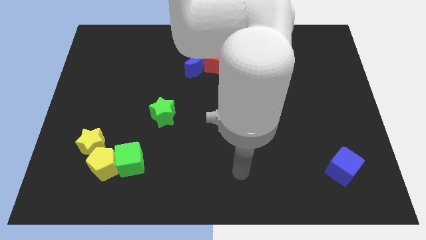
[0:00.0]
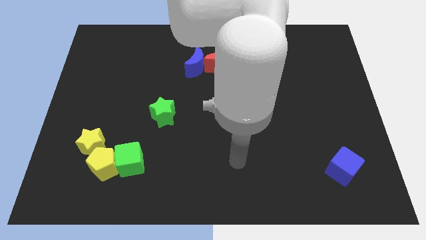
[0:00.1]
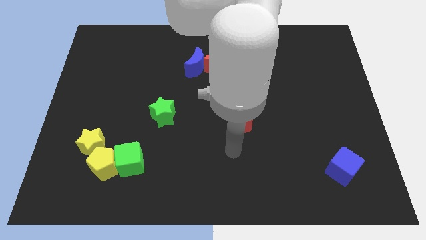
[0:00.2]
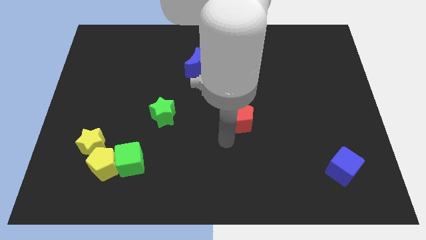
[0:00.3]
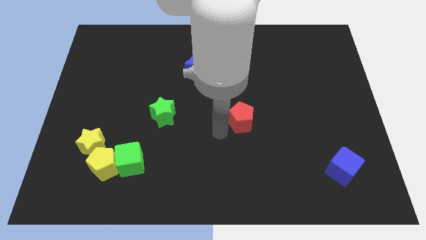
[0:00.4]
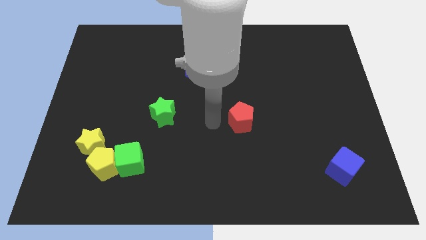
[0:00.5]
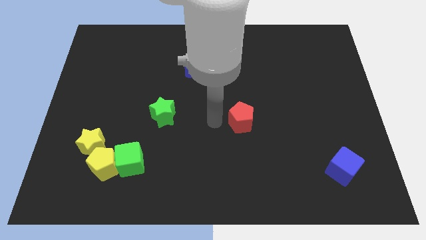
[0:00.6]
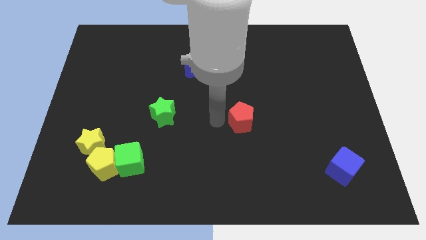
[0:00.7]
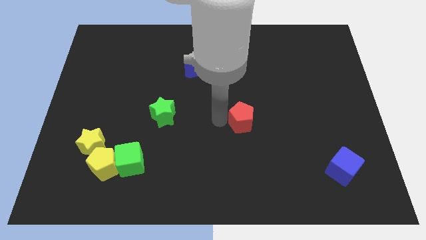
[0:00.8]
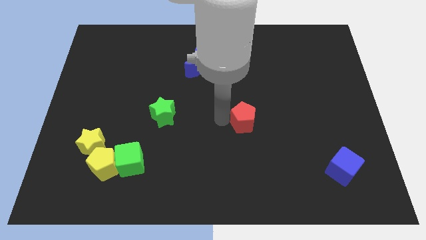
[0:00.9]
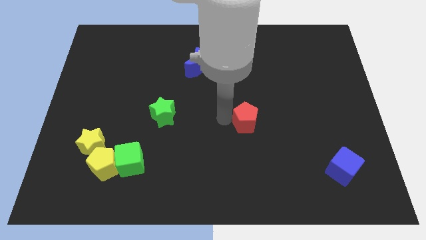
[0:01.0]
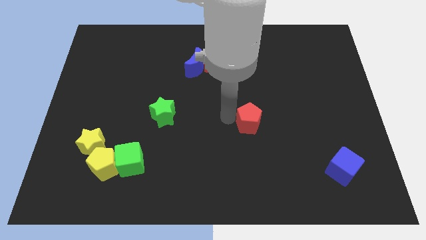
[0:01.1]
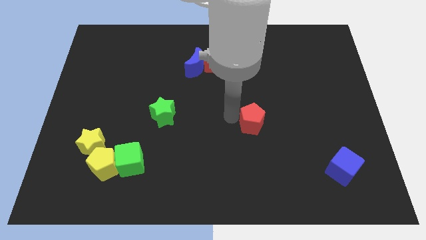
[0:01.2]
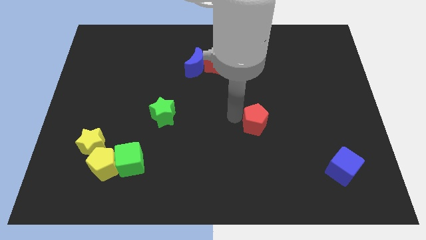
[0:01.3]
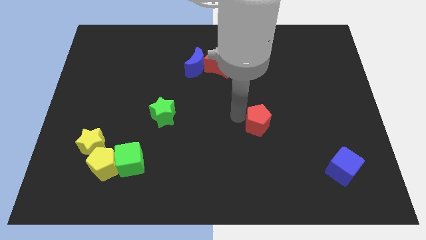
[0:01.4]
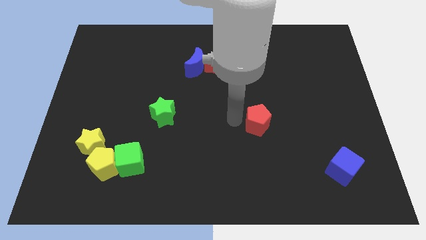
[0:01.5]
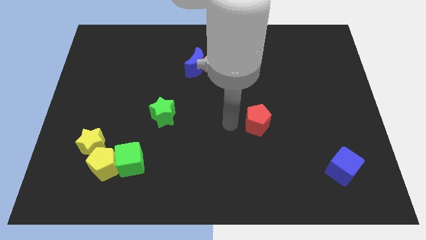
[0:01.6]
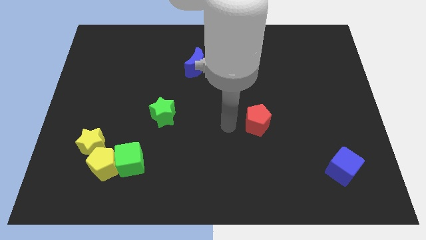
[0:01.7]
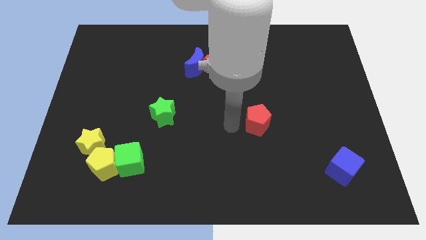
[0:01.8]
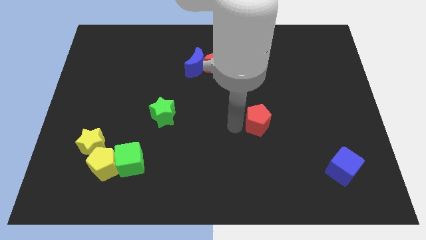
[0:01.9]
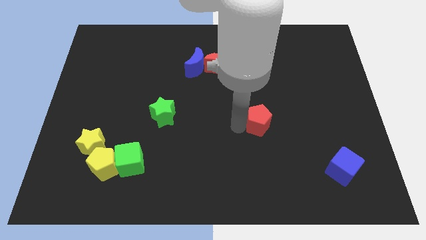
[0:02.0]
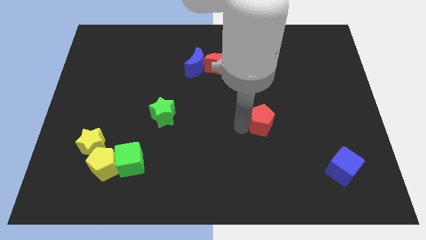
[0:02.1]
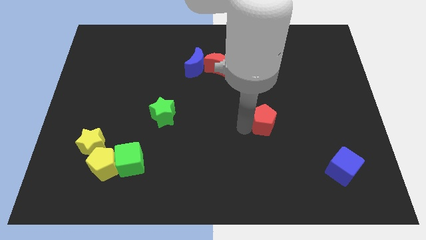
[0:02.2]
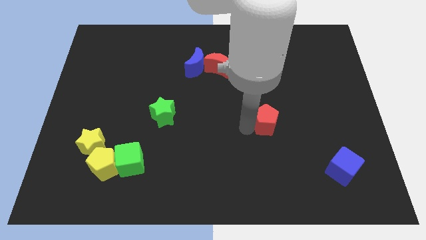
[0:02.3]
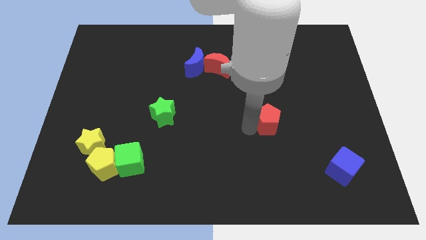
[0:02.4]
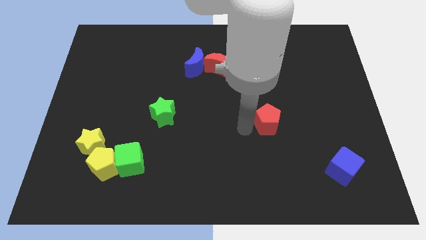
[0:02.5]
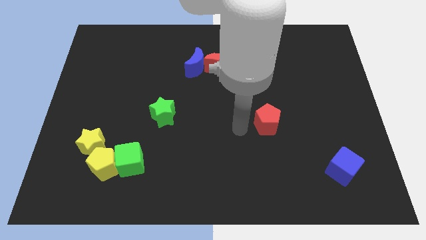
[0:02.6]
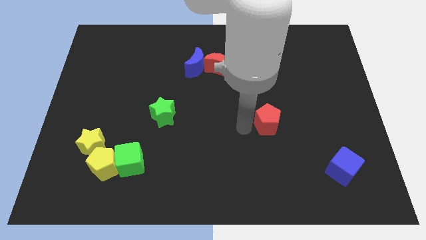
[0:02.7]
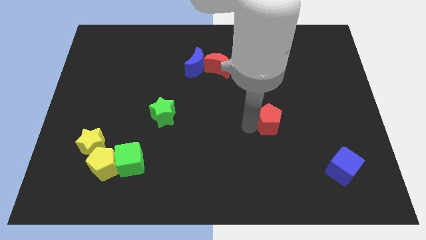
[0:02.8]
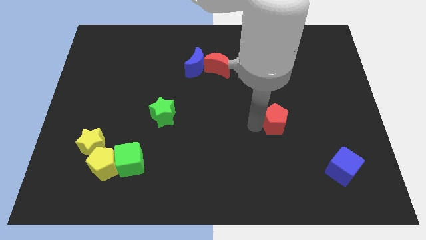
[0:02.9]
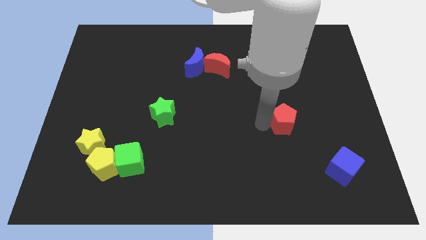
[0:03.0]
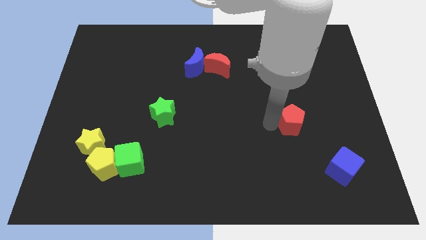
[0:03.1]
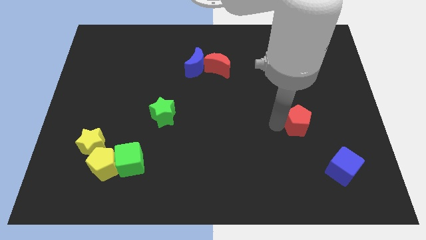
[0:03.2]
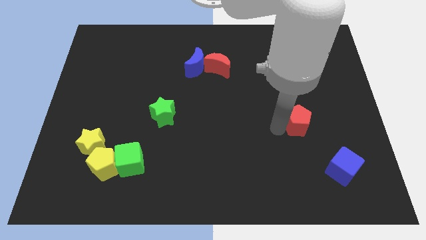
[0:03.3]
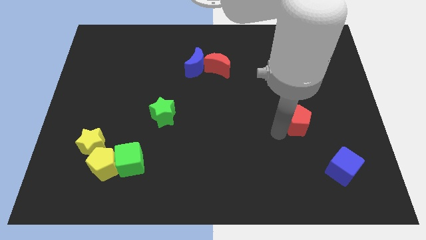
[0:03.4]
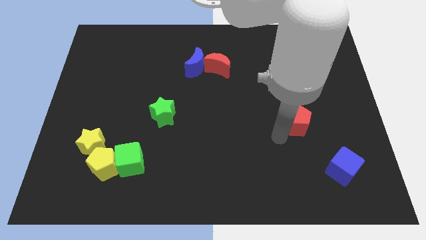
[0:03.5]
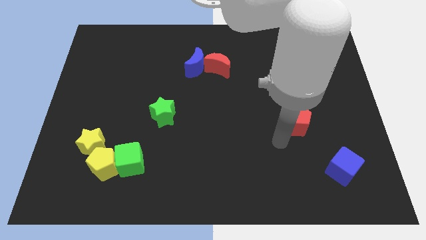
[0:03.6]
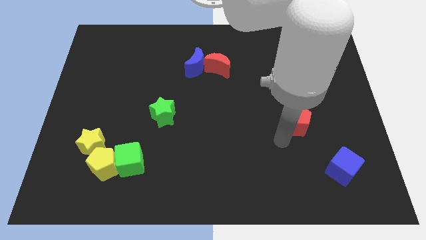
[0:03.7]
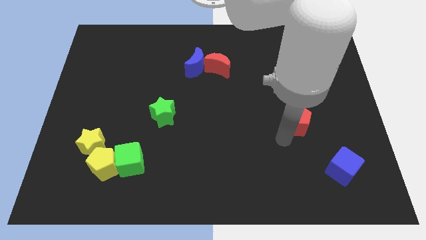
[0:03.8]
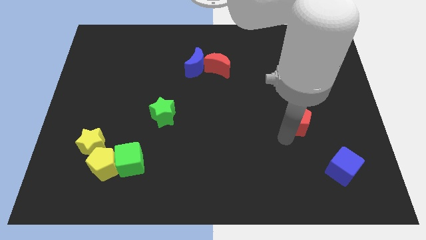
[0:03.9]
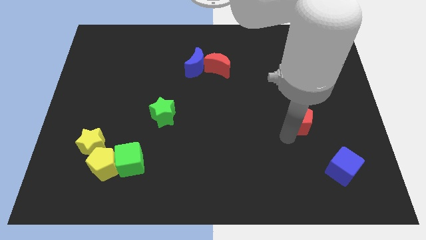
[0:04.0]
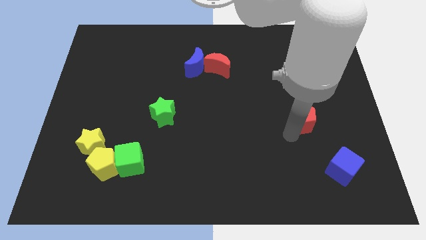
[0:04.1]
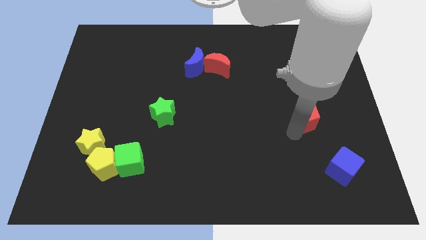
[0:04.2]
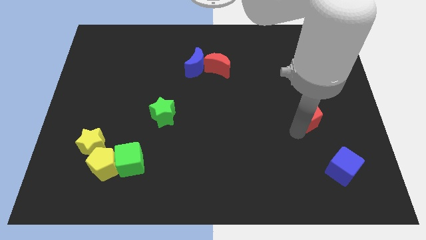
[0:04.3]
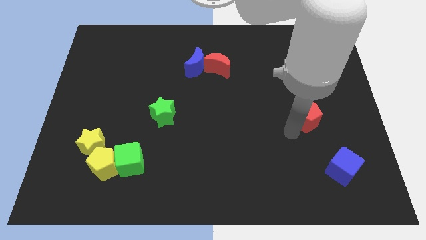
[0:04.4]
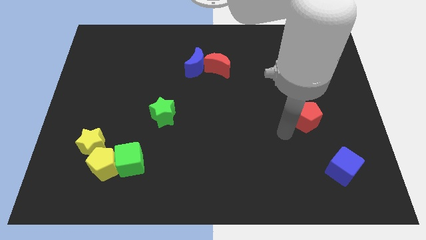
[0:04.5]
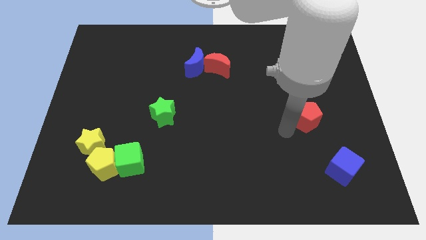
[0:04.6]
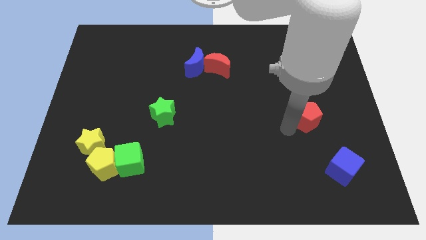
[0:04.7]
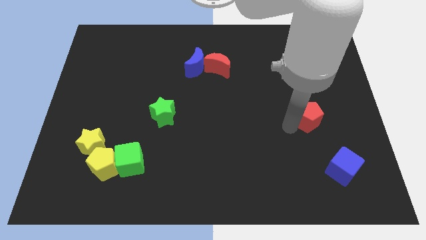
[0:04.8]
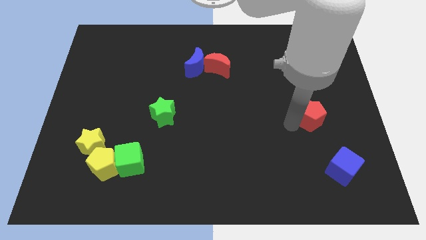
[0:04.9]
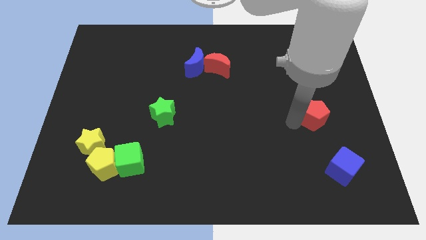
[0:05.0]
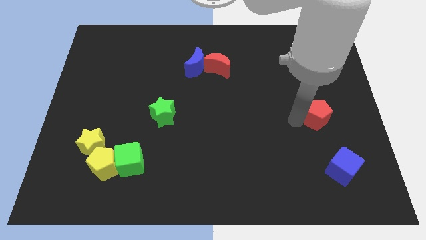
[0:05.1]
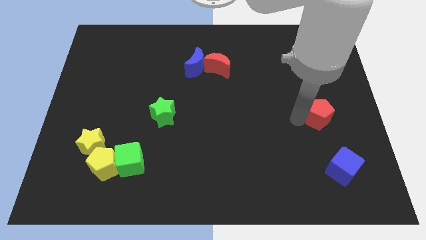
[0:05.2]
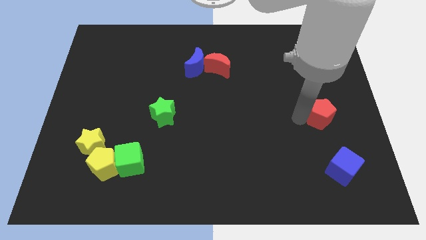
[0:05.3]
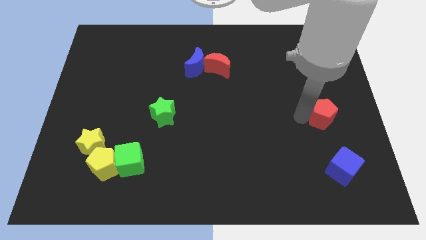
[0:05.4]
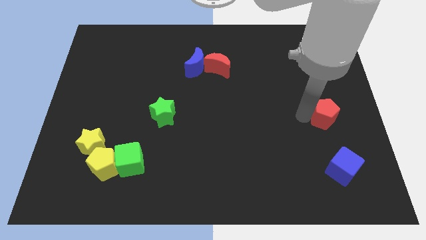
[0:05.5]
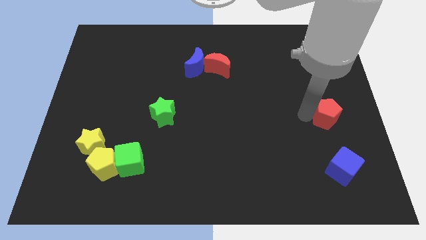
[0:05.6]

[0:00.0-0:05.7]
push the red pentagon to the right side of the board
